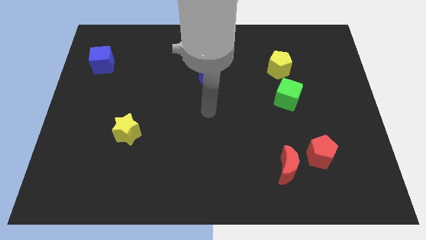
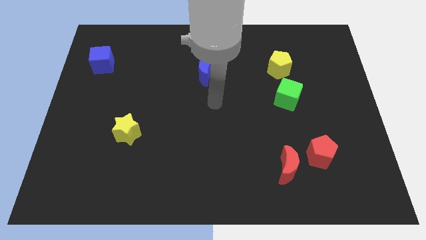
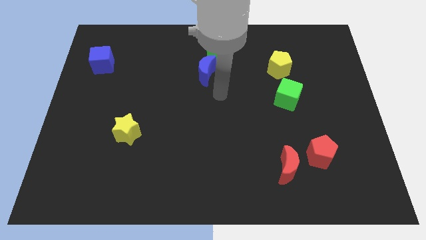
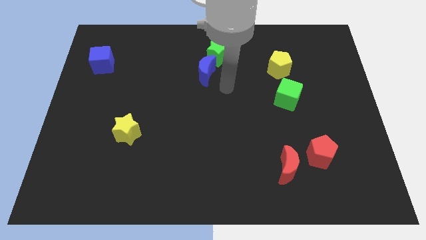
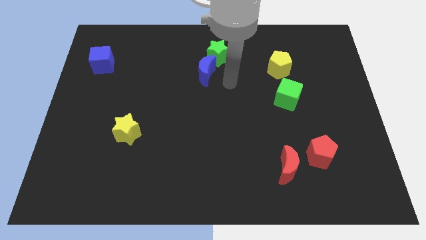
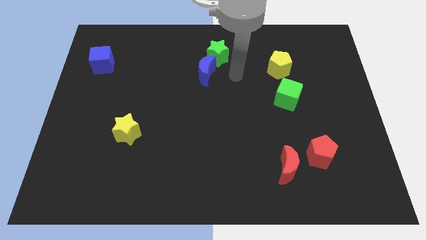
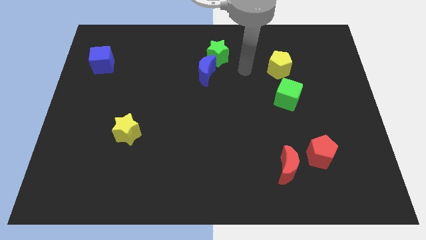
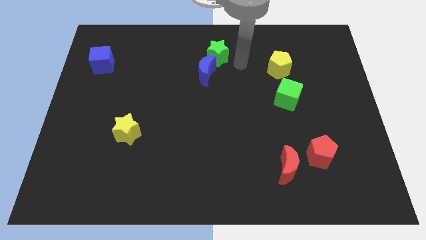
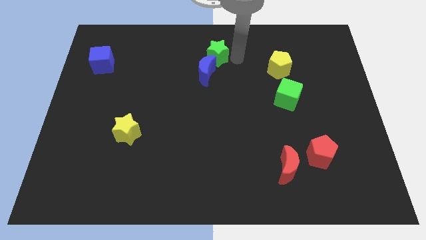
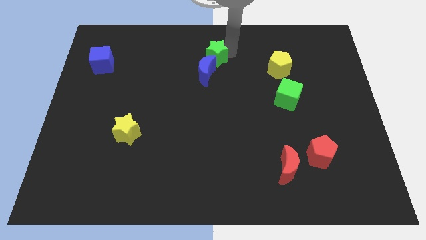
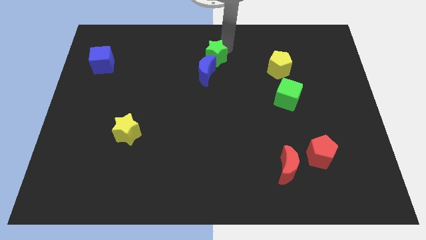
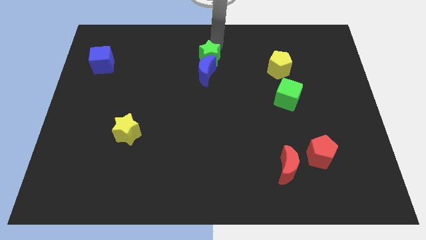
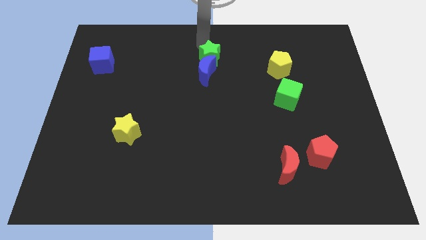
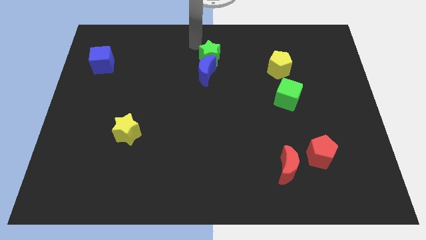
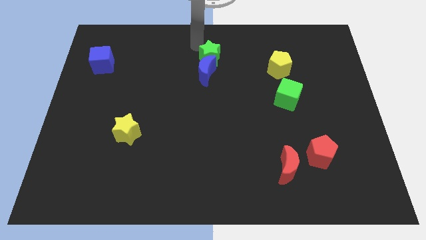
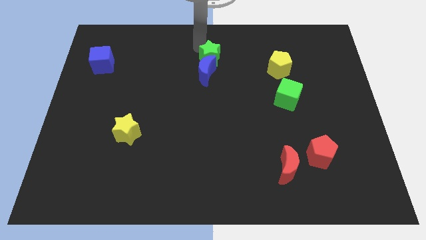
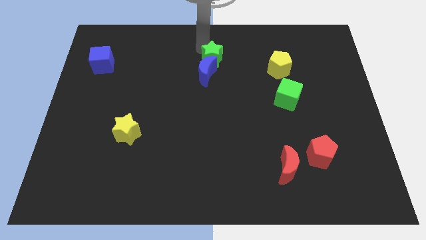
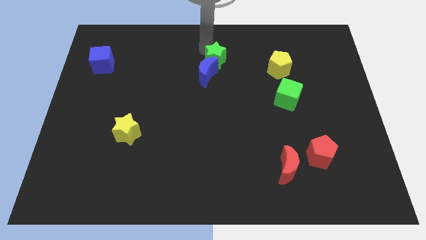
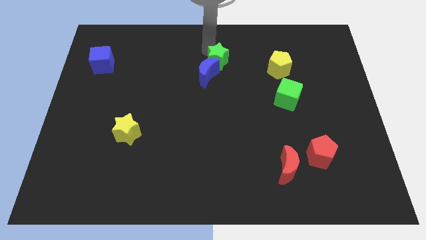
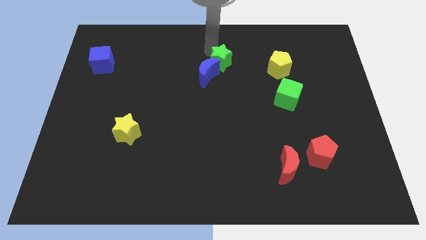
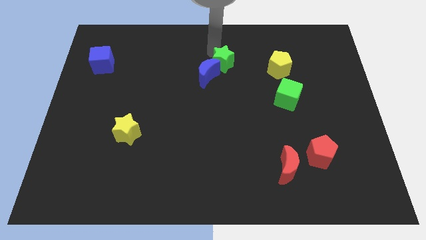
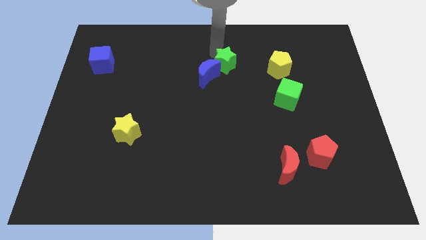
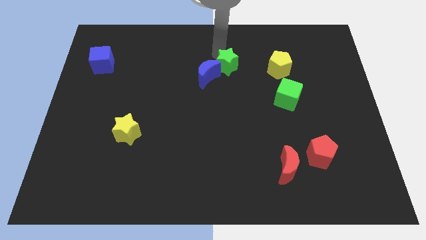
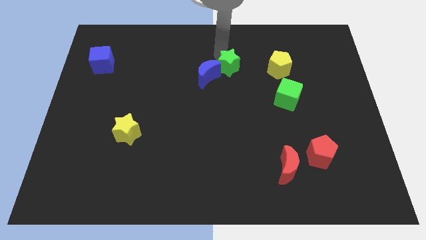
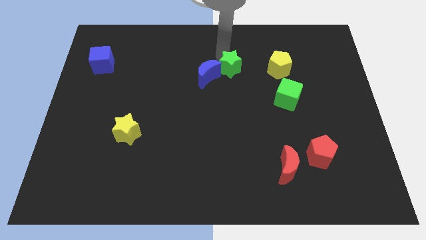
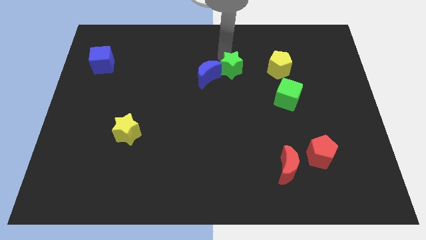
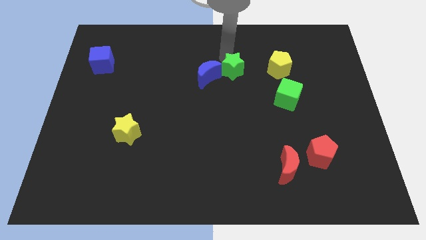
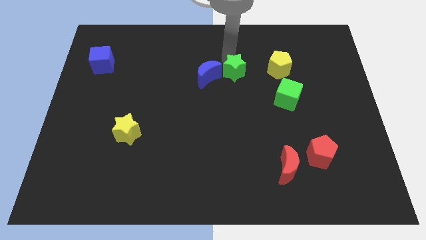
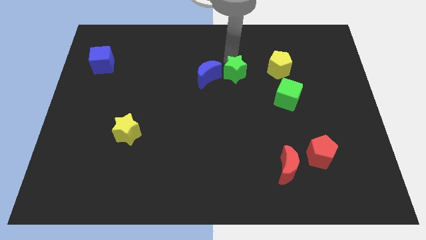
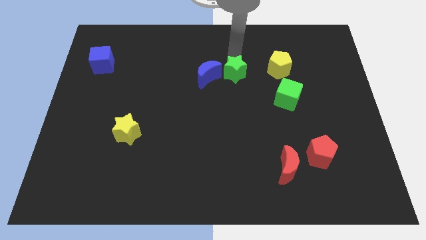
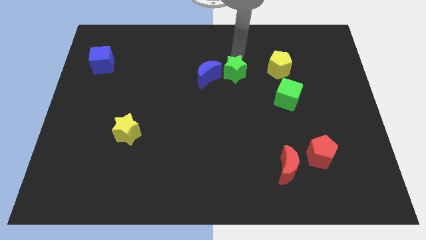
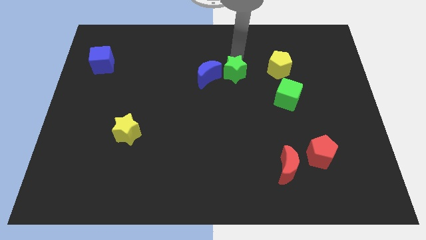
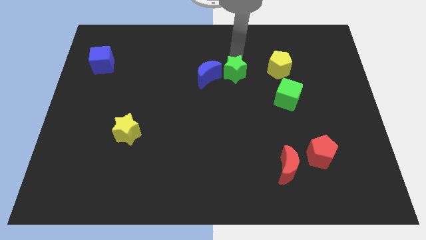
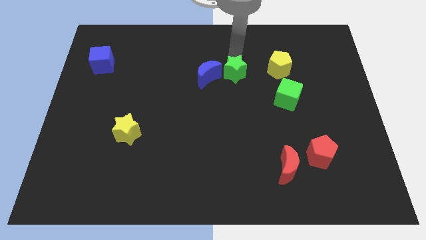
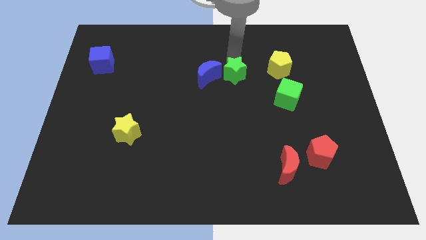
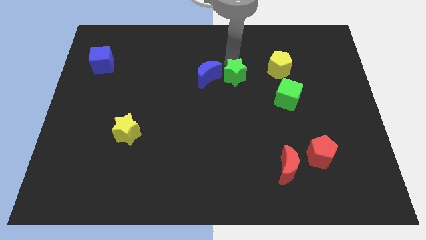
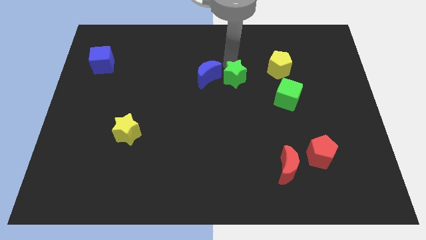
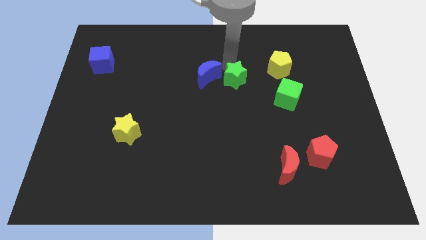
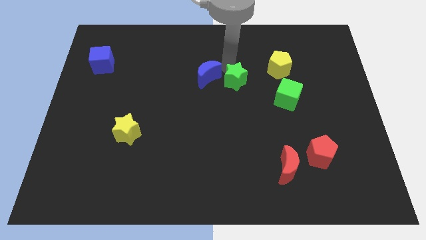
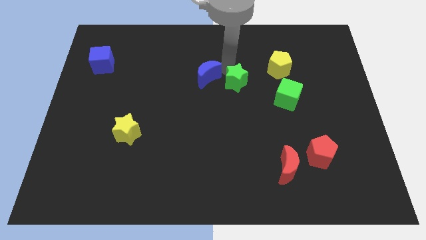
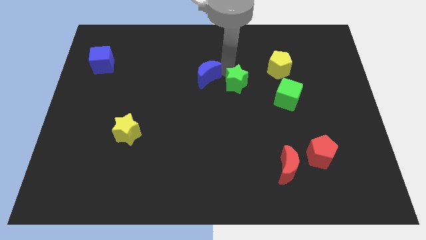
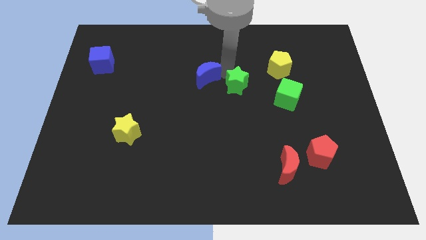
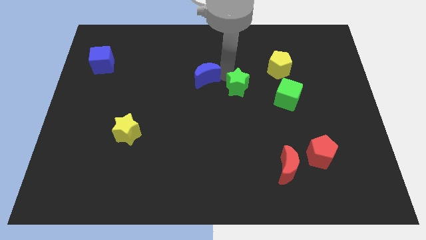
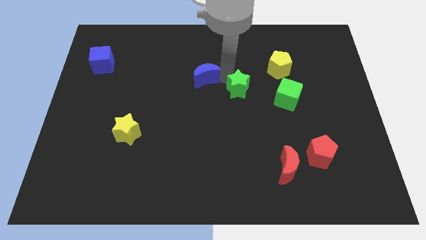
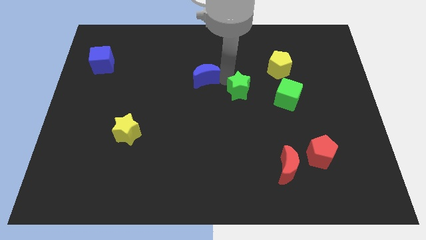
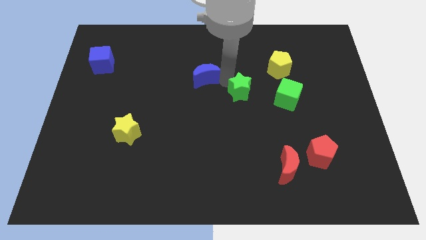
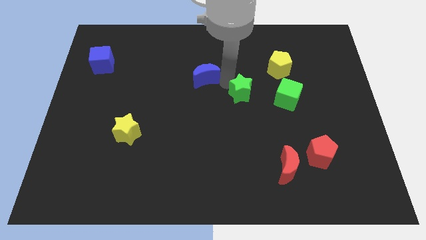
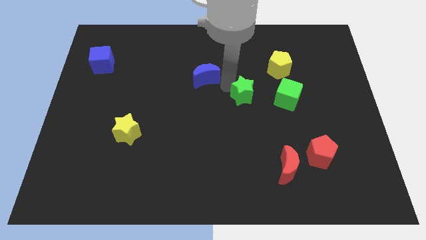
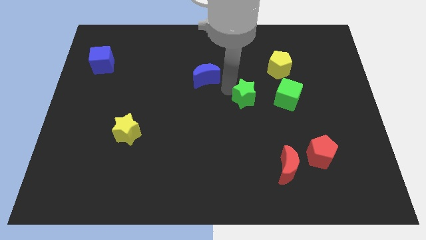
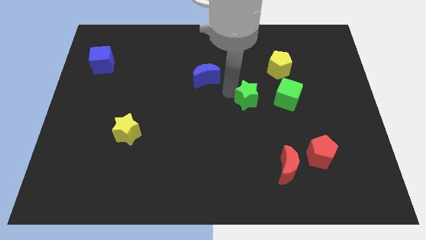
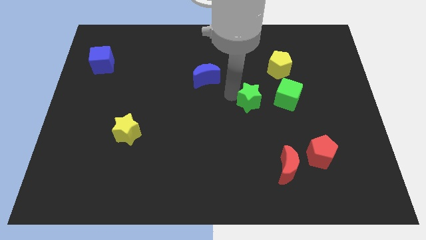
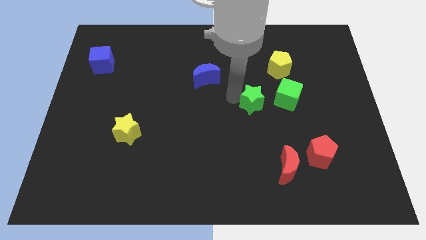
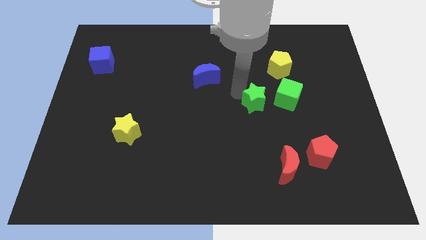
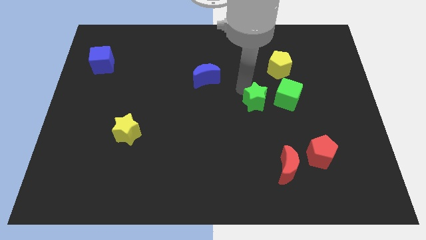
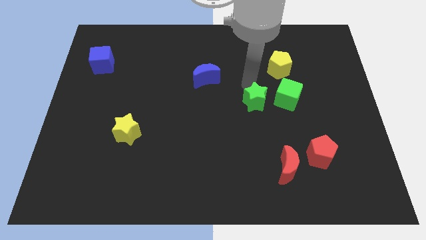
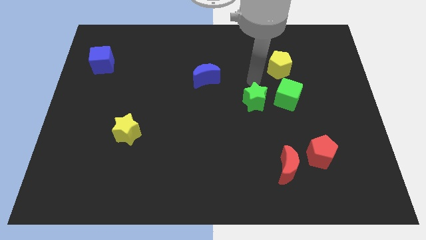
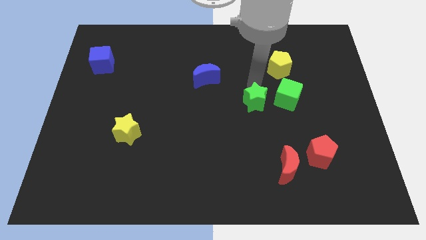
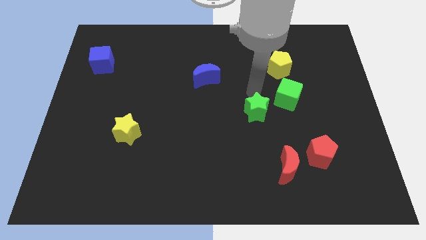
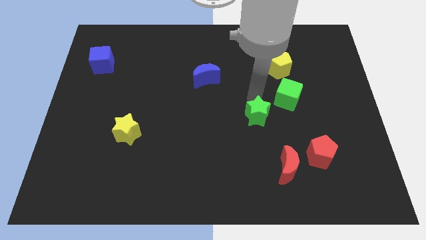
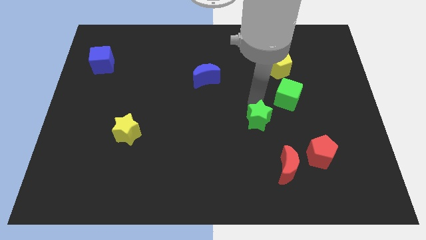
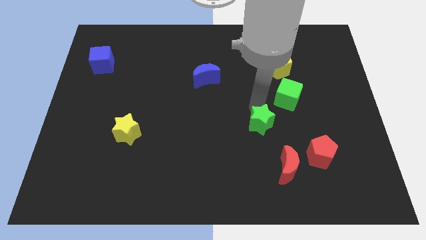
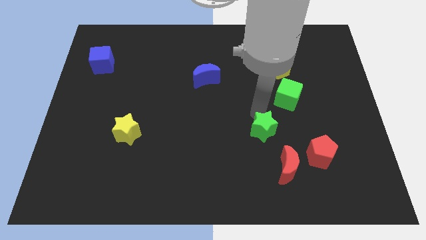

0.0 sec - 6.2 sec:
slide the green star diagonally up and to the left of the red moon

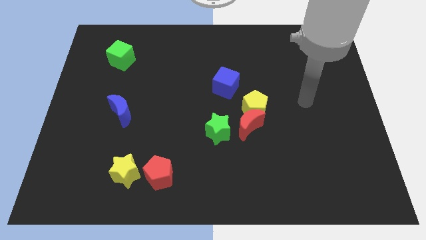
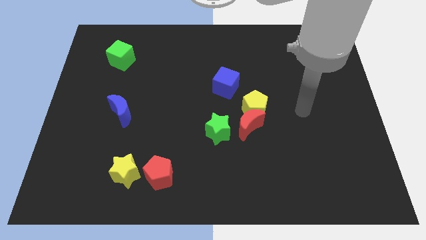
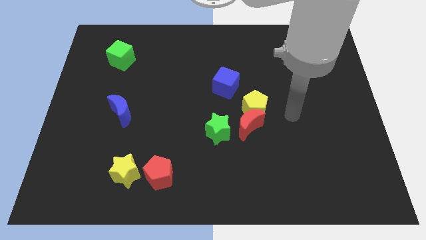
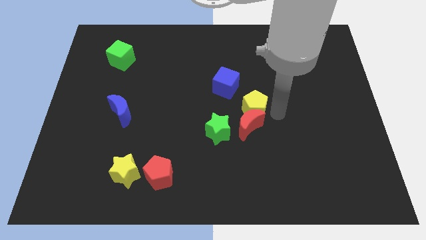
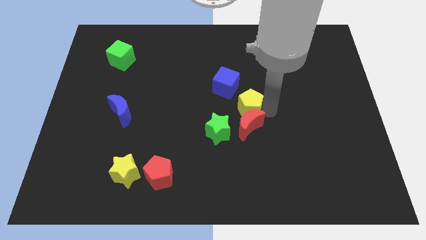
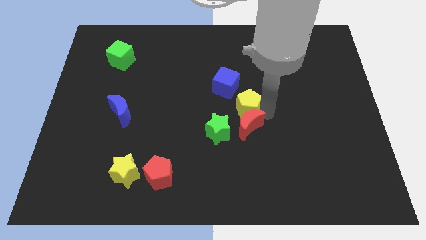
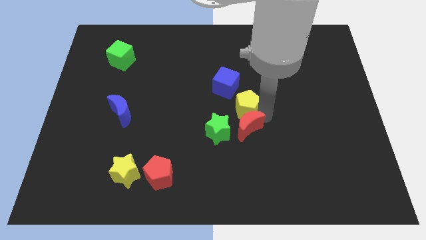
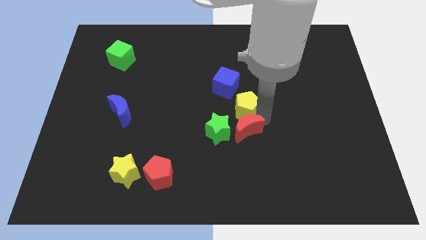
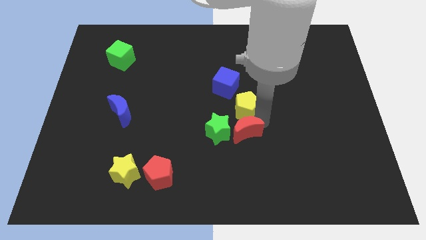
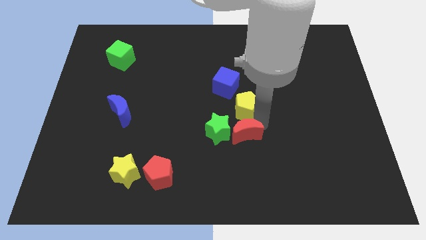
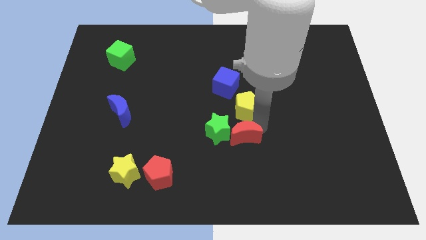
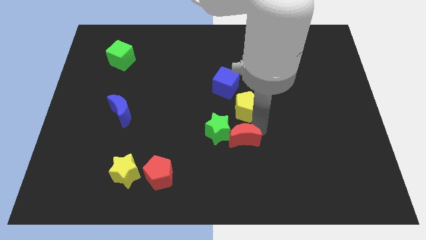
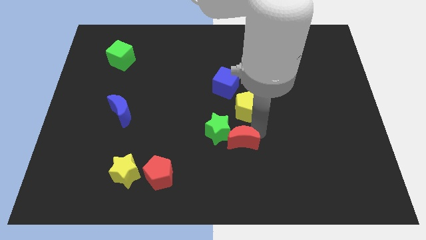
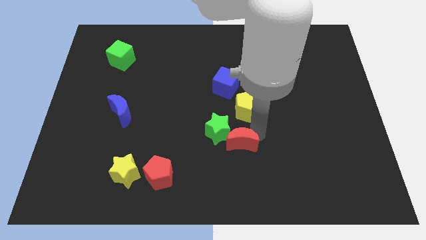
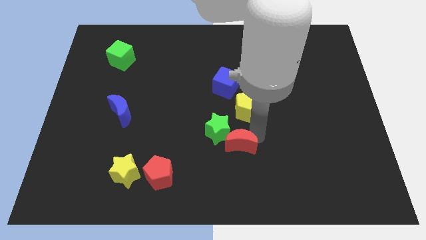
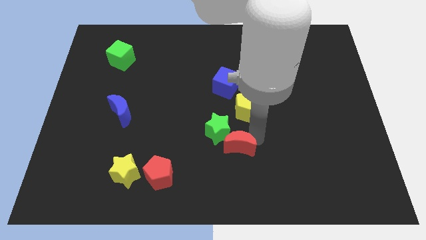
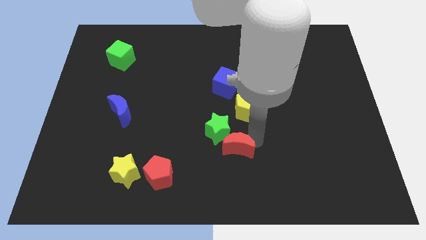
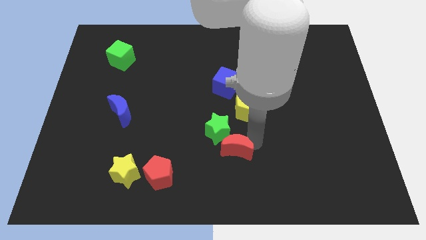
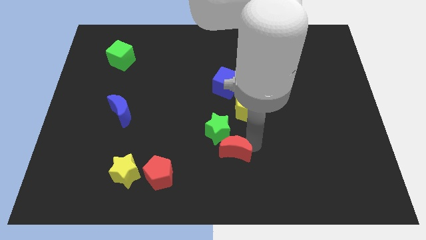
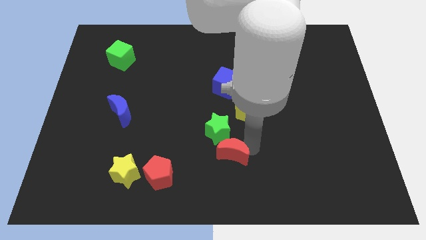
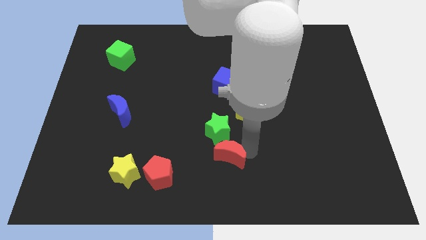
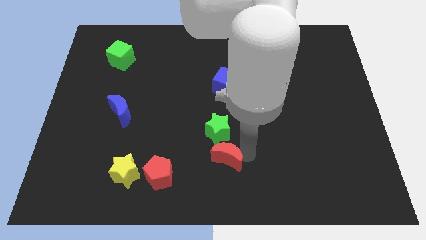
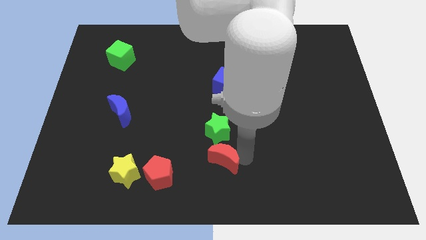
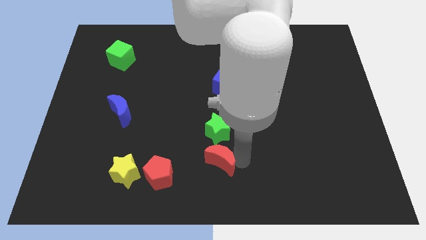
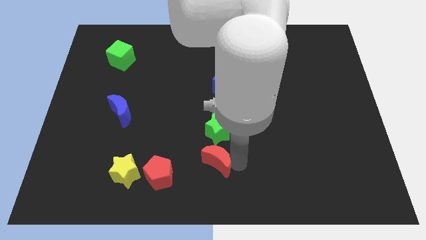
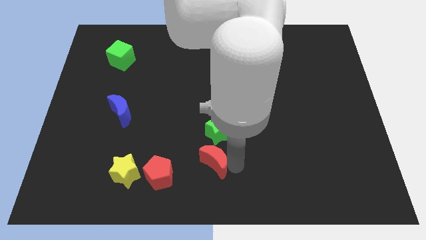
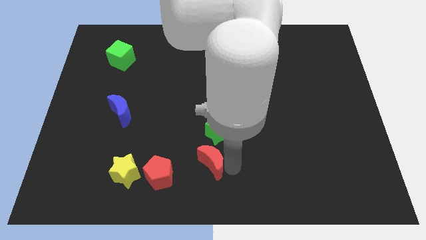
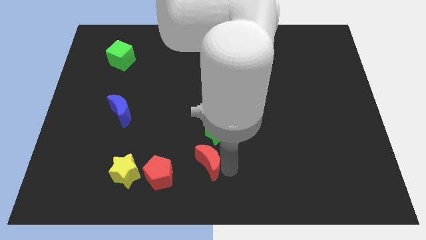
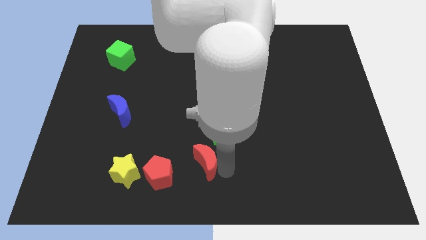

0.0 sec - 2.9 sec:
slide the red moon diagonally up and to the right of the red pentagon
